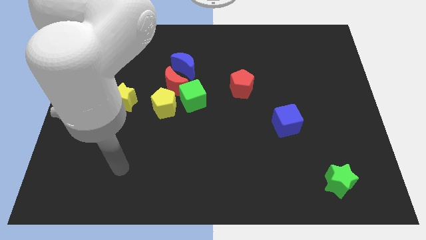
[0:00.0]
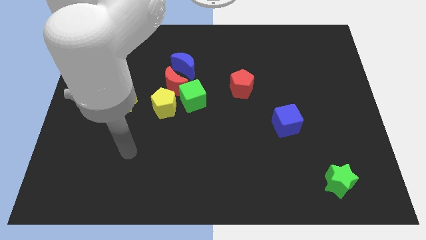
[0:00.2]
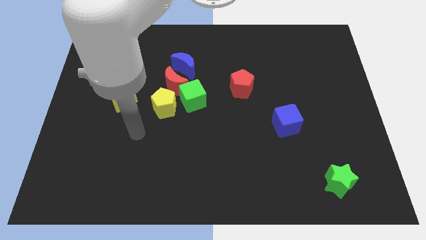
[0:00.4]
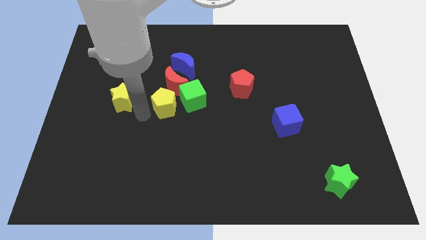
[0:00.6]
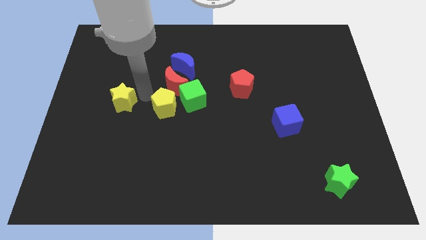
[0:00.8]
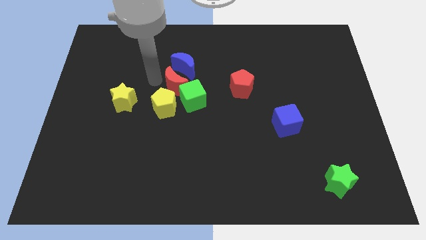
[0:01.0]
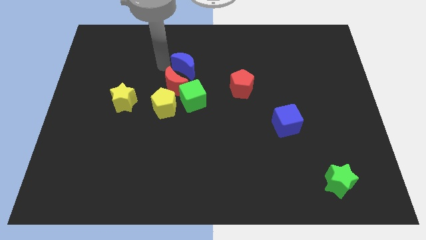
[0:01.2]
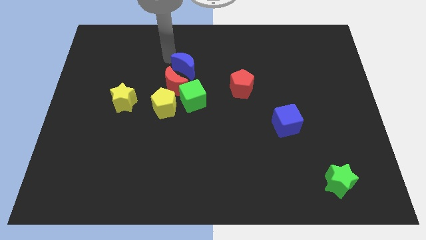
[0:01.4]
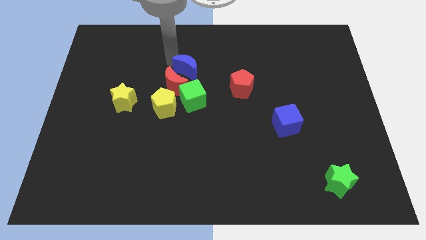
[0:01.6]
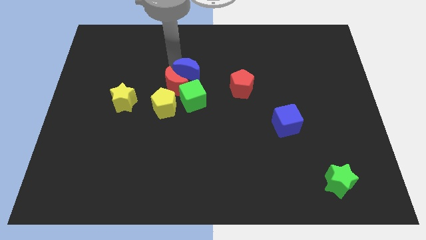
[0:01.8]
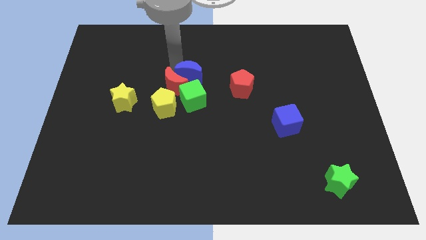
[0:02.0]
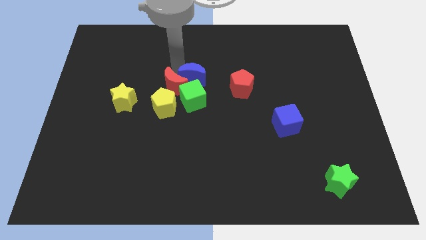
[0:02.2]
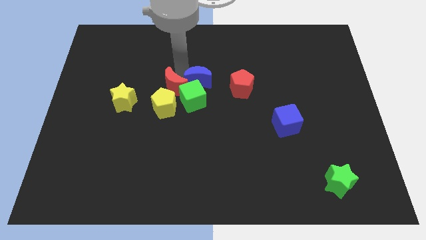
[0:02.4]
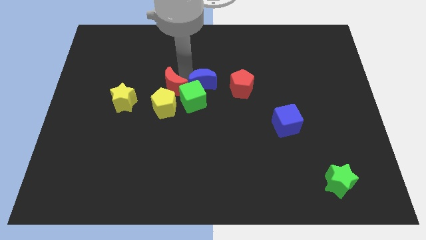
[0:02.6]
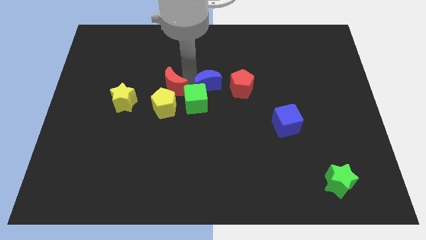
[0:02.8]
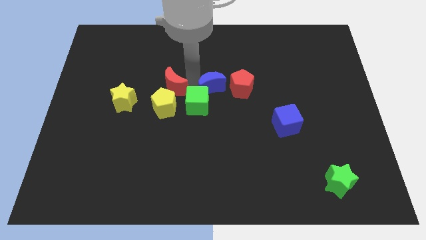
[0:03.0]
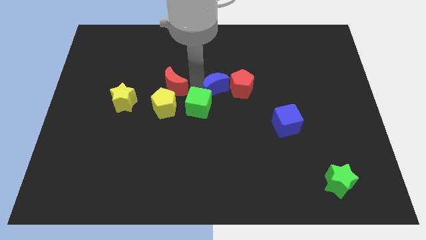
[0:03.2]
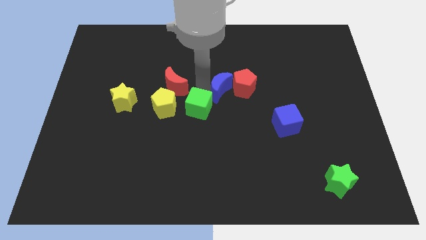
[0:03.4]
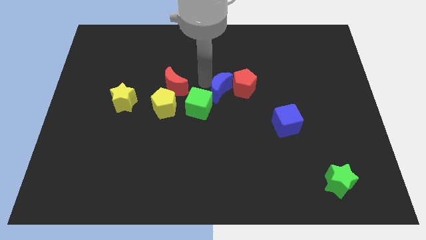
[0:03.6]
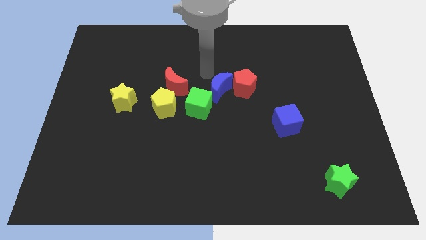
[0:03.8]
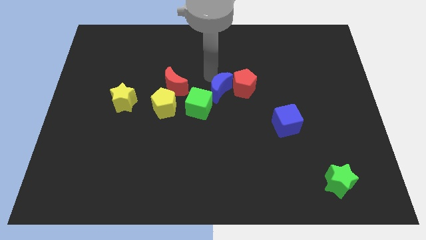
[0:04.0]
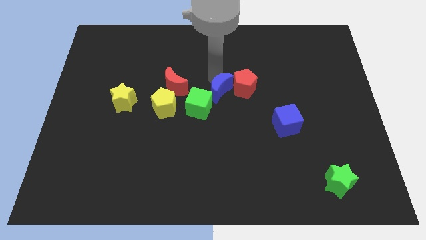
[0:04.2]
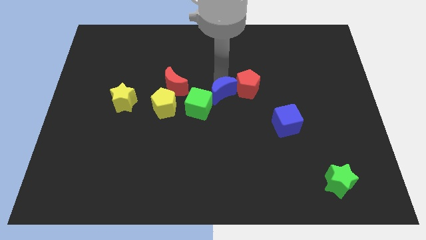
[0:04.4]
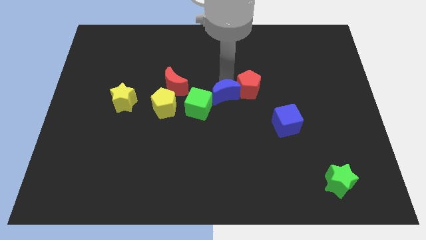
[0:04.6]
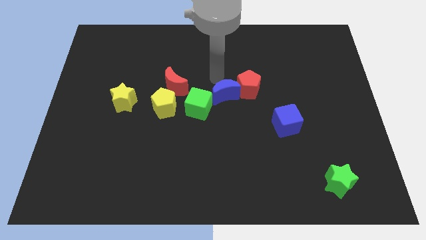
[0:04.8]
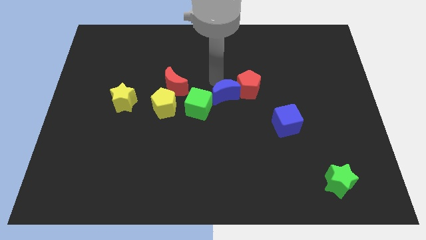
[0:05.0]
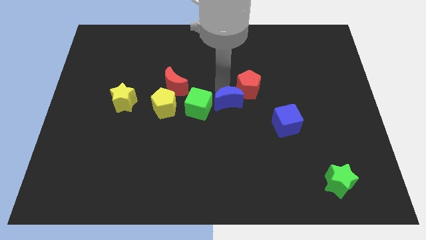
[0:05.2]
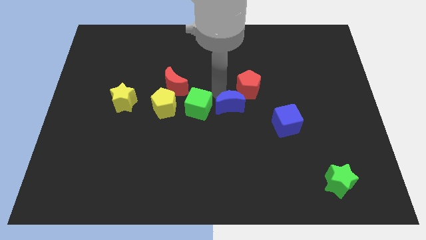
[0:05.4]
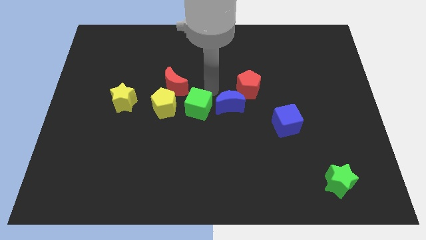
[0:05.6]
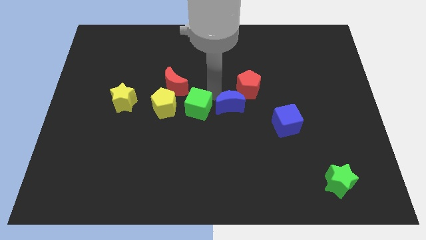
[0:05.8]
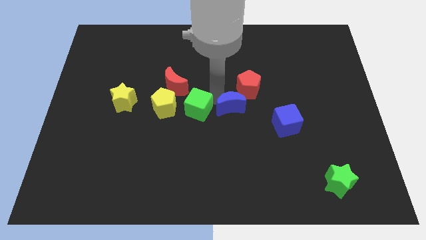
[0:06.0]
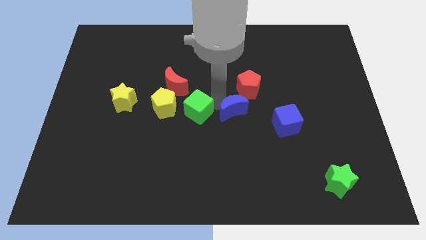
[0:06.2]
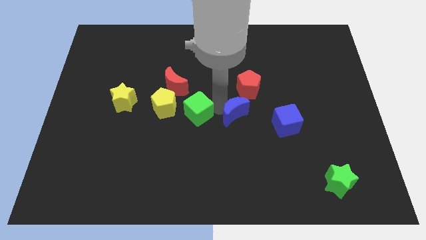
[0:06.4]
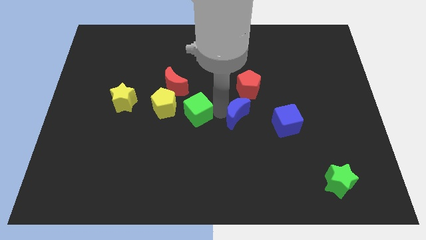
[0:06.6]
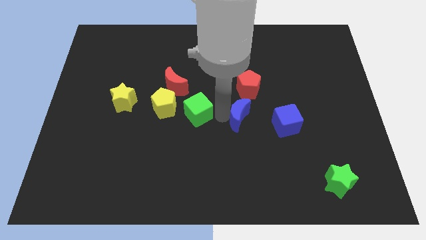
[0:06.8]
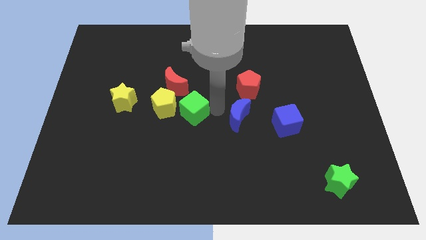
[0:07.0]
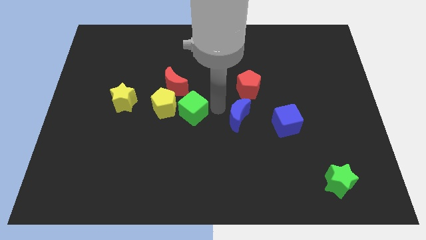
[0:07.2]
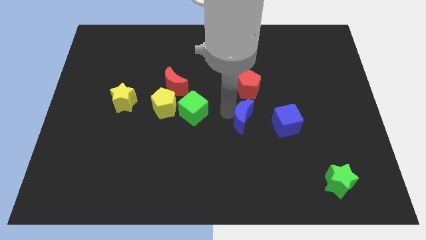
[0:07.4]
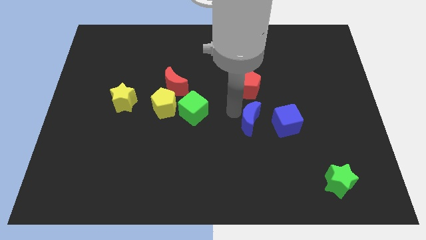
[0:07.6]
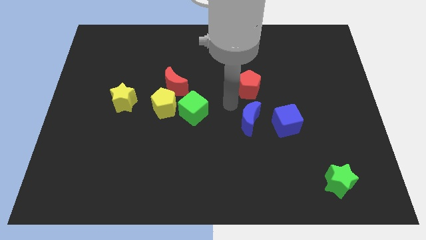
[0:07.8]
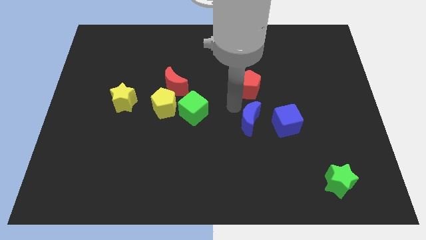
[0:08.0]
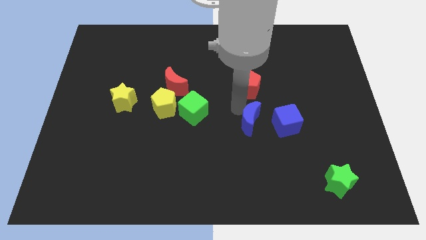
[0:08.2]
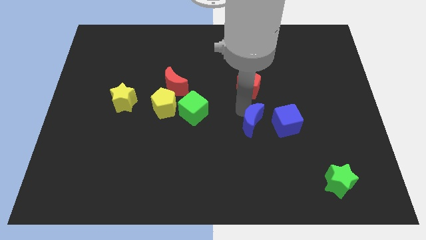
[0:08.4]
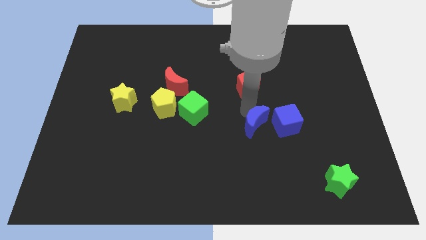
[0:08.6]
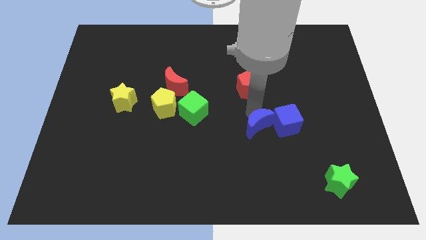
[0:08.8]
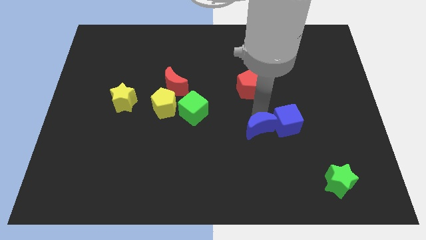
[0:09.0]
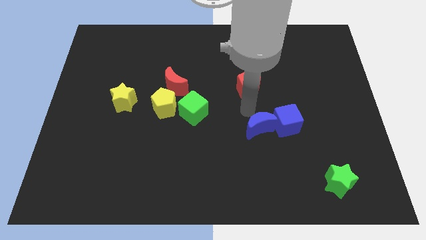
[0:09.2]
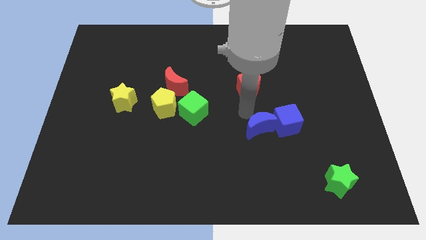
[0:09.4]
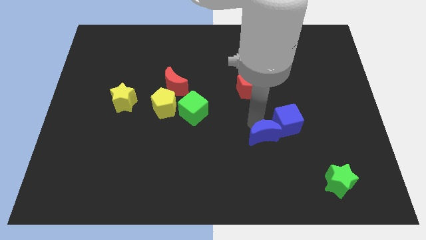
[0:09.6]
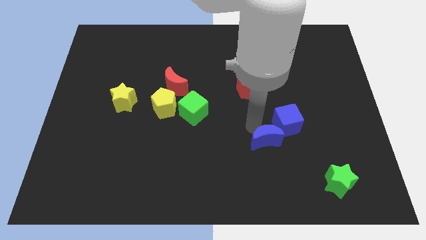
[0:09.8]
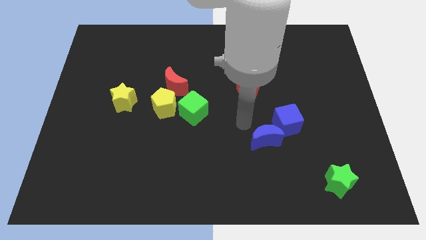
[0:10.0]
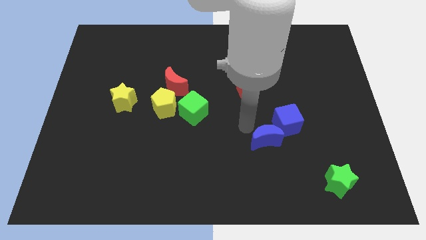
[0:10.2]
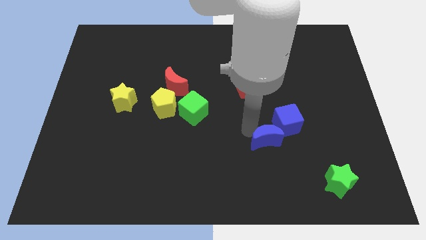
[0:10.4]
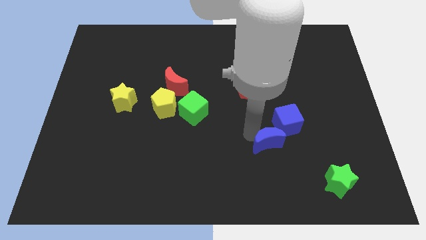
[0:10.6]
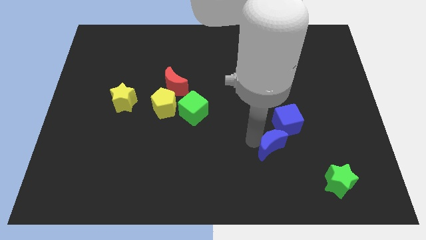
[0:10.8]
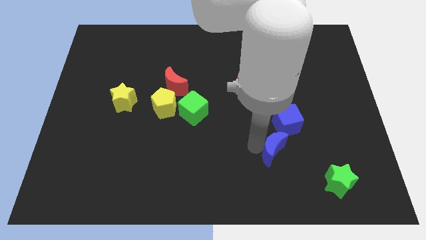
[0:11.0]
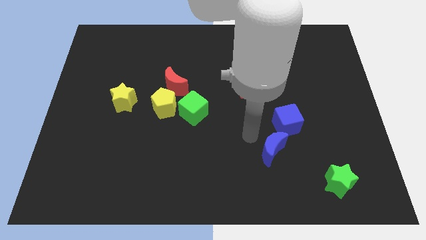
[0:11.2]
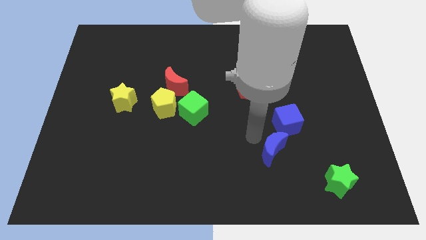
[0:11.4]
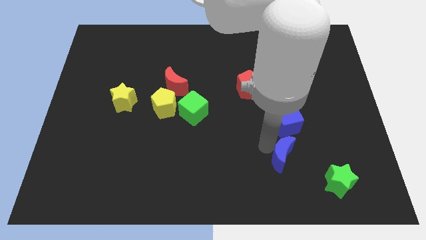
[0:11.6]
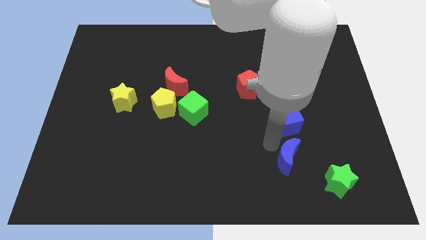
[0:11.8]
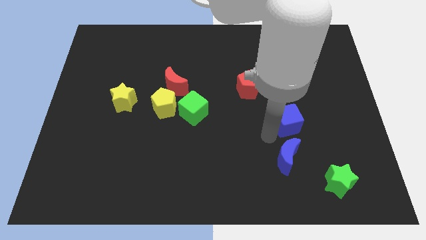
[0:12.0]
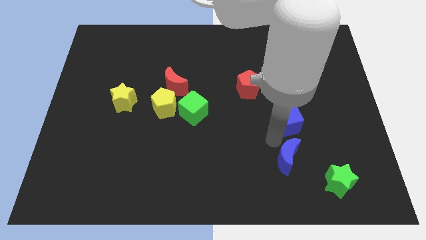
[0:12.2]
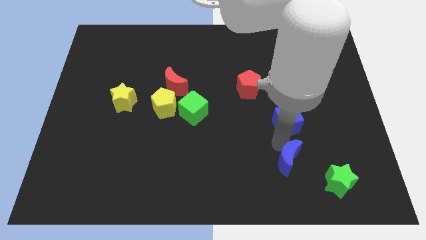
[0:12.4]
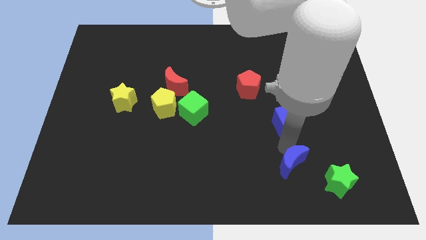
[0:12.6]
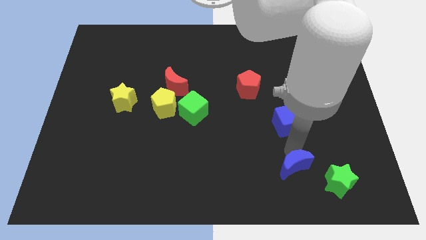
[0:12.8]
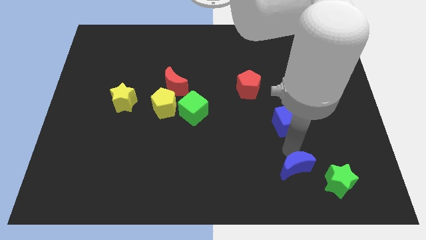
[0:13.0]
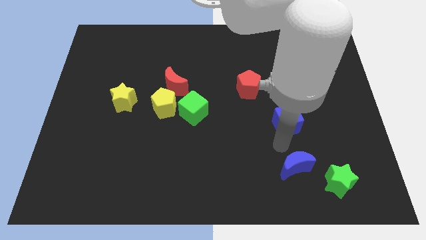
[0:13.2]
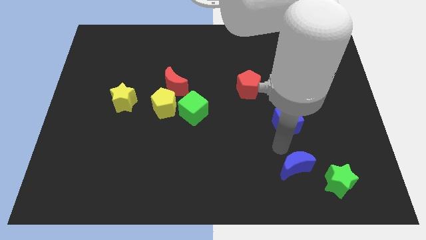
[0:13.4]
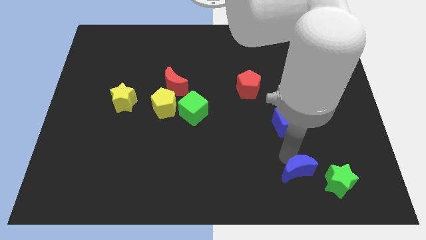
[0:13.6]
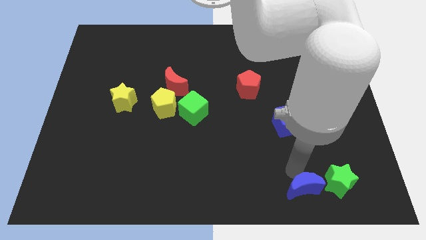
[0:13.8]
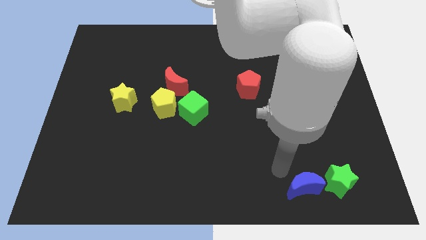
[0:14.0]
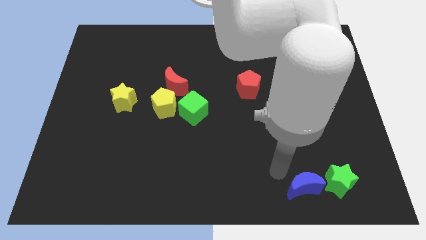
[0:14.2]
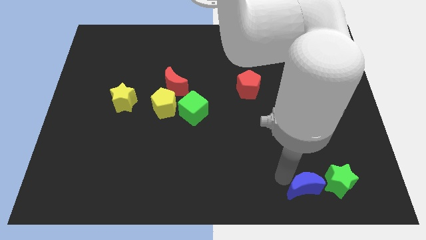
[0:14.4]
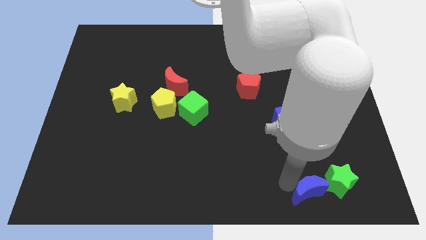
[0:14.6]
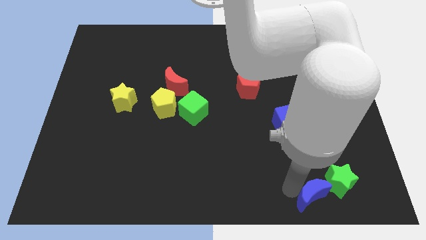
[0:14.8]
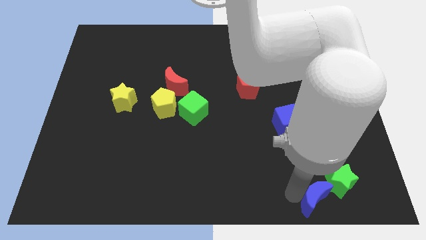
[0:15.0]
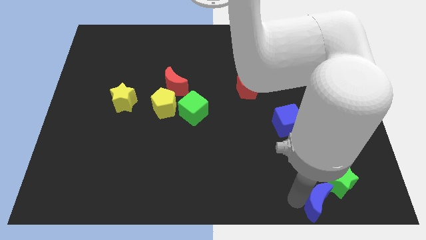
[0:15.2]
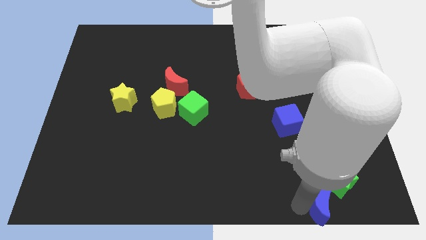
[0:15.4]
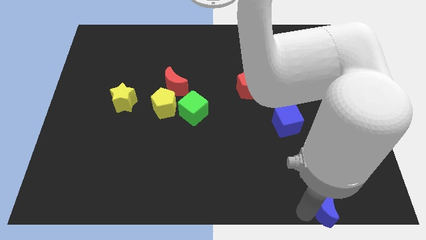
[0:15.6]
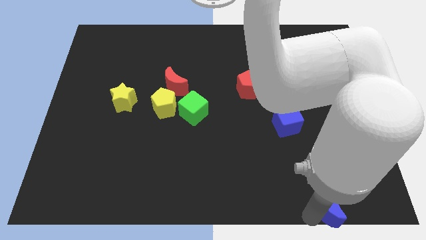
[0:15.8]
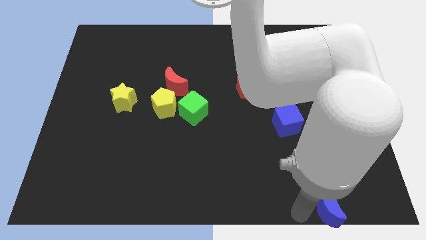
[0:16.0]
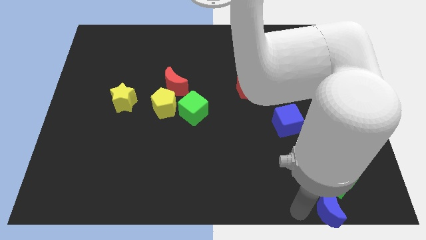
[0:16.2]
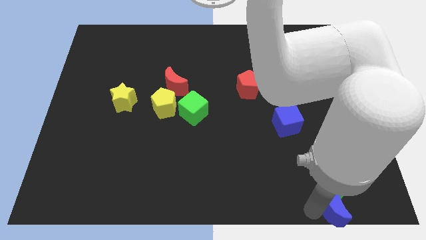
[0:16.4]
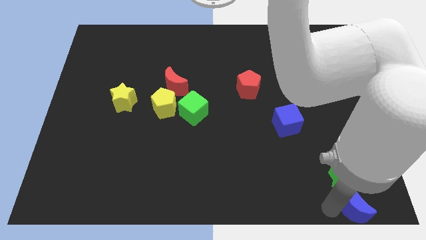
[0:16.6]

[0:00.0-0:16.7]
put the blue moon to the bottom right
